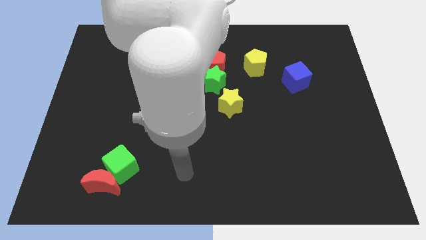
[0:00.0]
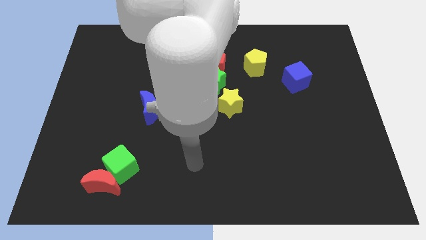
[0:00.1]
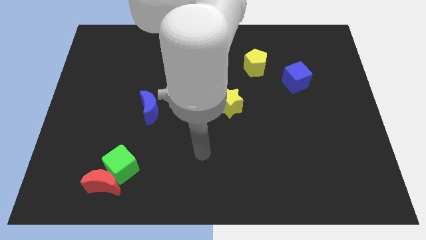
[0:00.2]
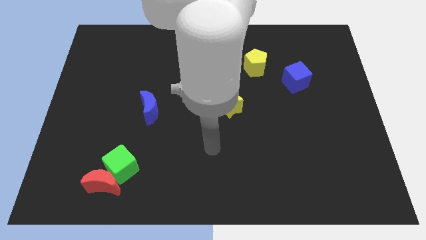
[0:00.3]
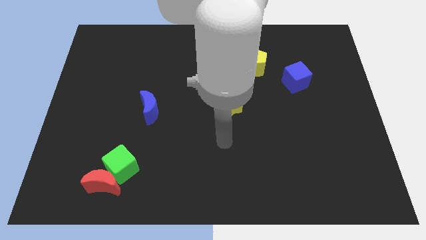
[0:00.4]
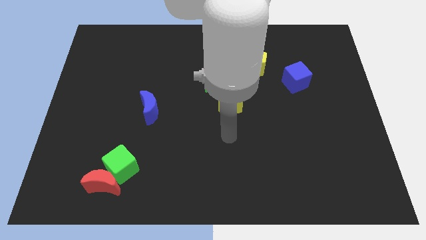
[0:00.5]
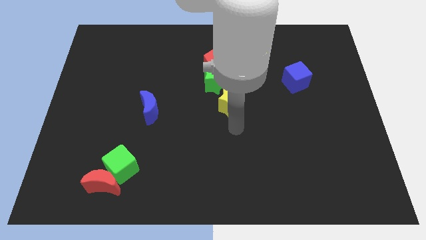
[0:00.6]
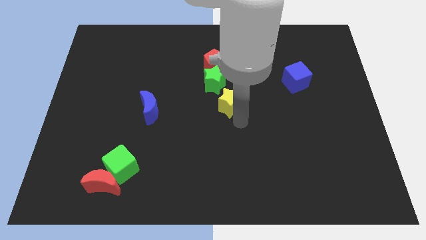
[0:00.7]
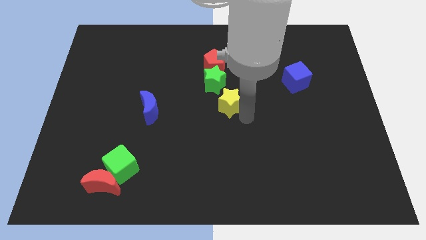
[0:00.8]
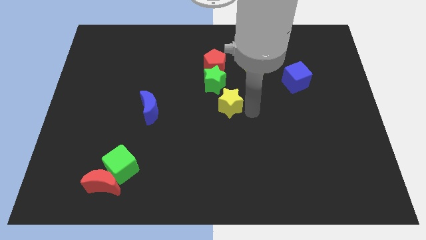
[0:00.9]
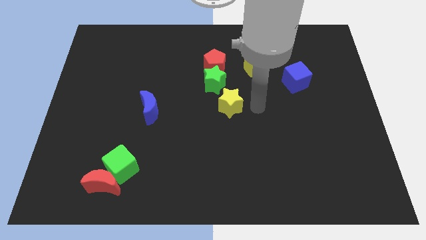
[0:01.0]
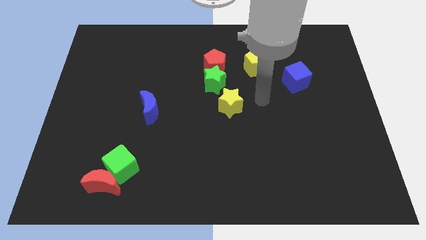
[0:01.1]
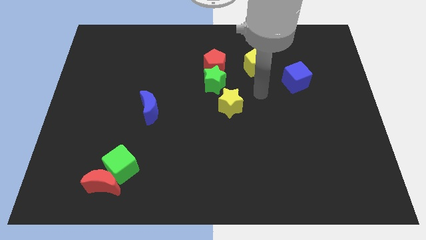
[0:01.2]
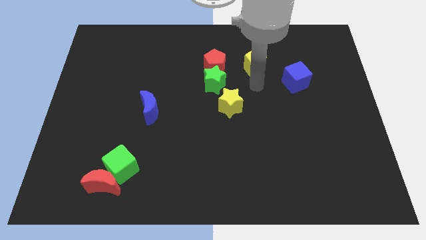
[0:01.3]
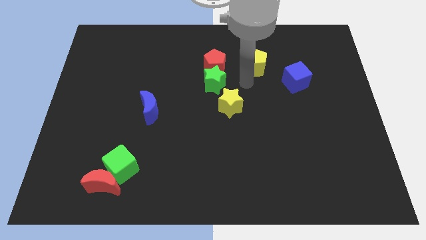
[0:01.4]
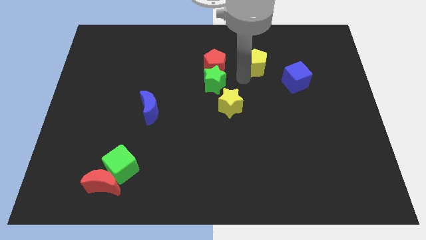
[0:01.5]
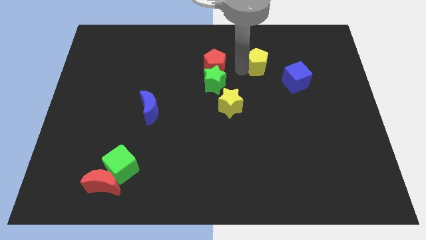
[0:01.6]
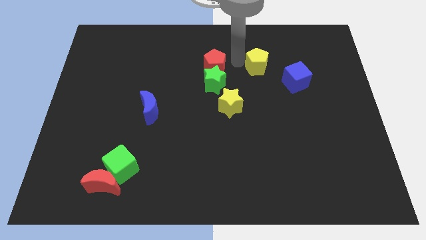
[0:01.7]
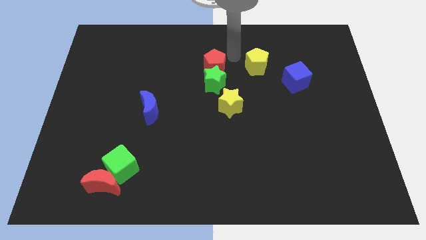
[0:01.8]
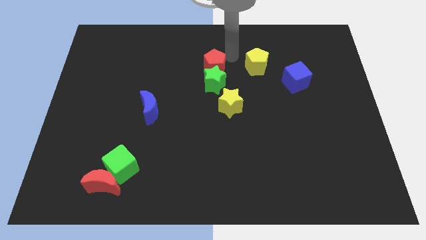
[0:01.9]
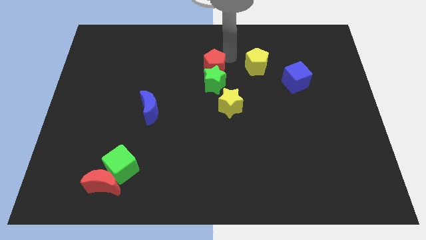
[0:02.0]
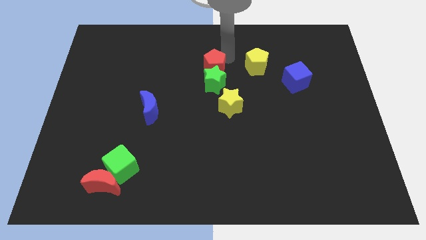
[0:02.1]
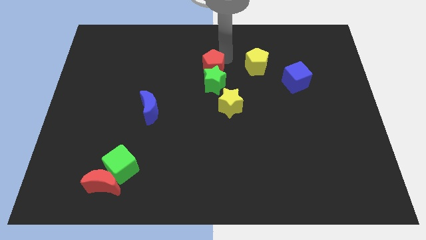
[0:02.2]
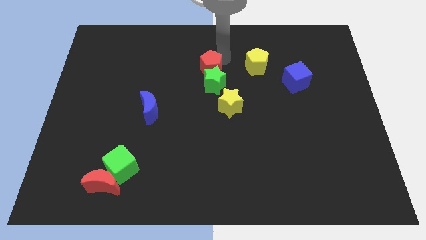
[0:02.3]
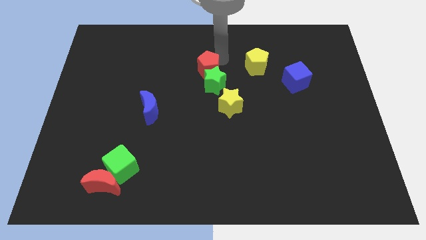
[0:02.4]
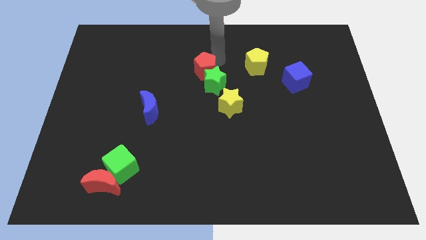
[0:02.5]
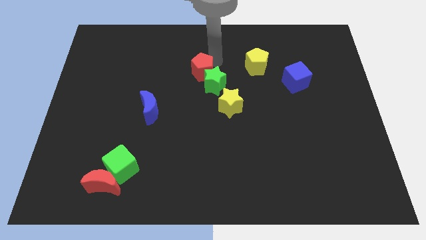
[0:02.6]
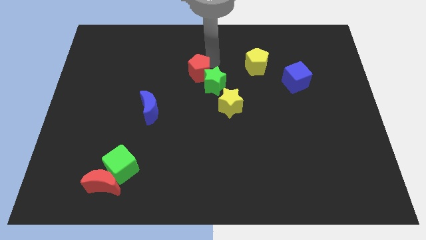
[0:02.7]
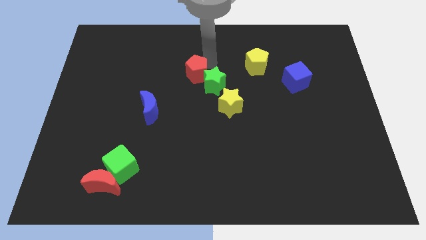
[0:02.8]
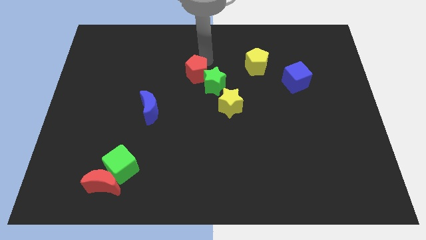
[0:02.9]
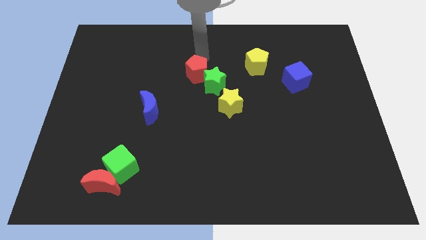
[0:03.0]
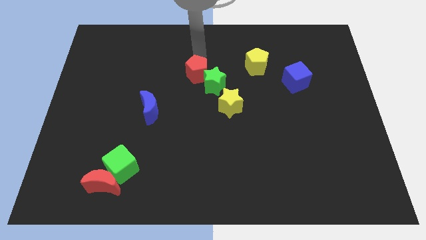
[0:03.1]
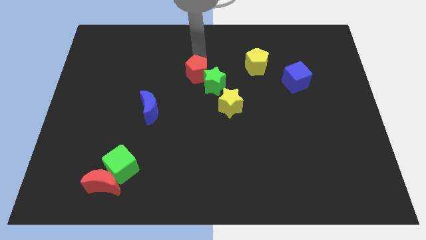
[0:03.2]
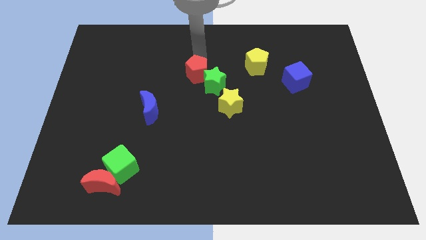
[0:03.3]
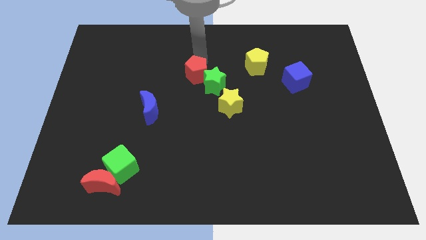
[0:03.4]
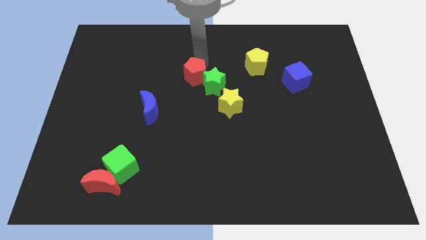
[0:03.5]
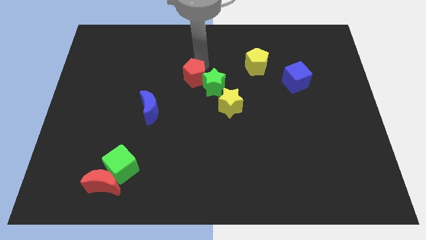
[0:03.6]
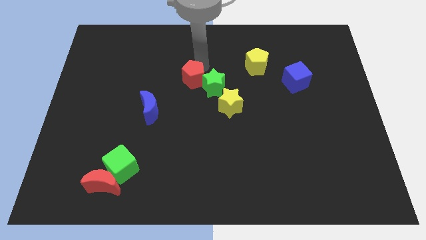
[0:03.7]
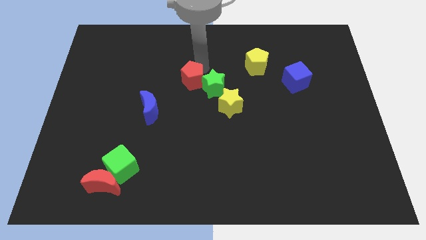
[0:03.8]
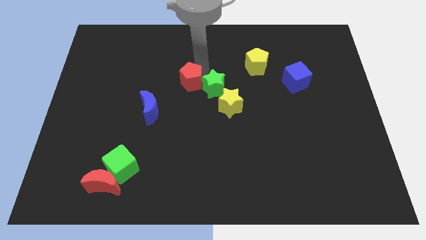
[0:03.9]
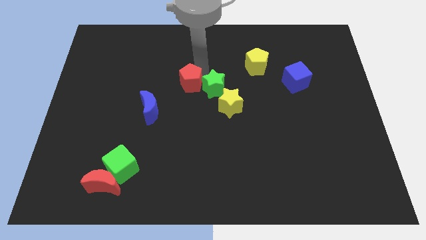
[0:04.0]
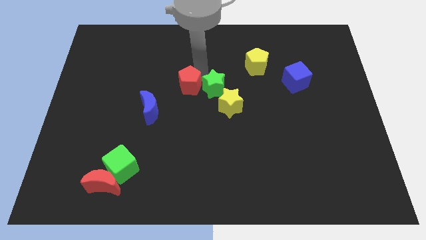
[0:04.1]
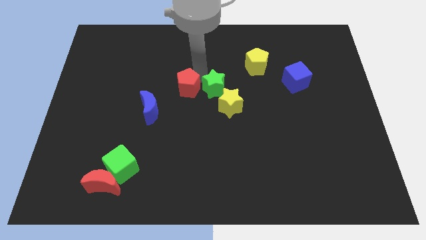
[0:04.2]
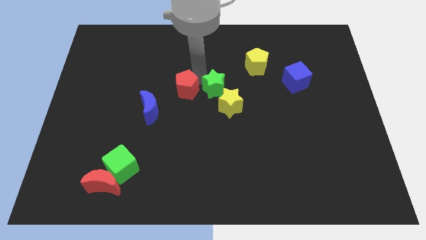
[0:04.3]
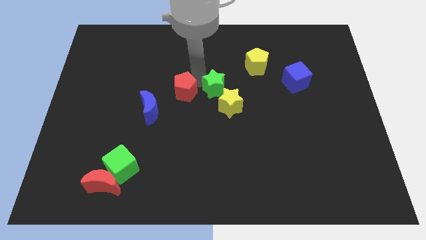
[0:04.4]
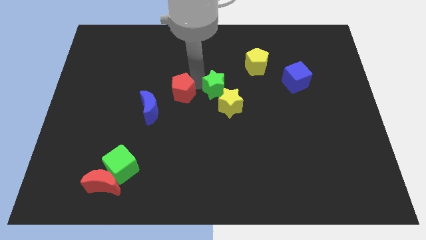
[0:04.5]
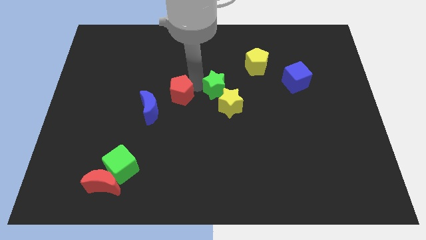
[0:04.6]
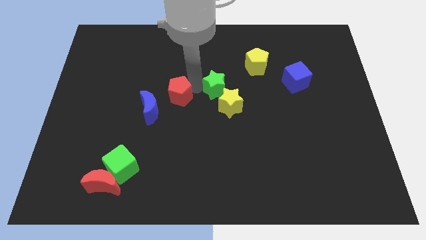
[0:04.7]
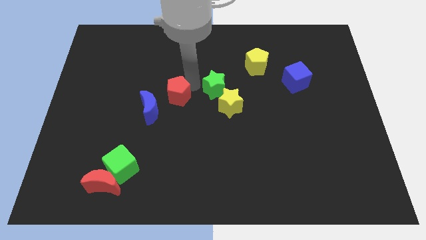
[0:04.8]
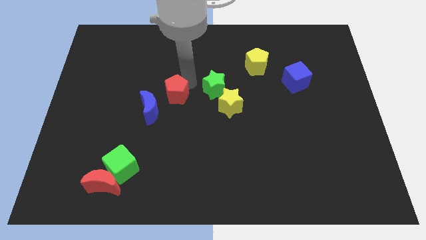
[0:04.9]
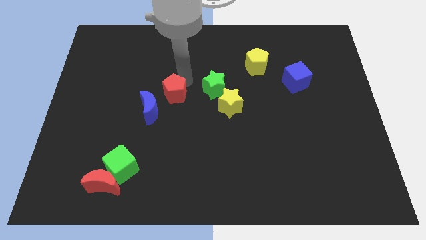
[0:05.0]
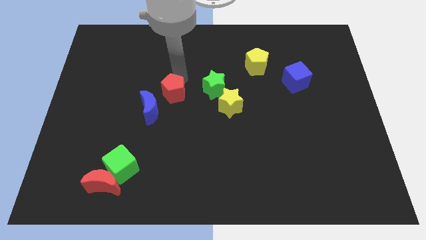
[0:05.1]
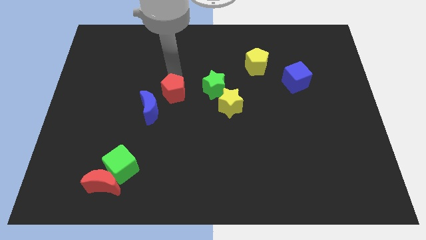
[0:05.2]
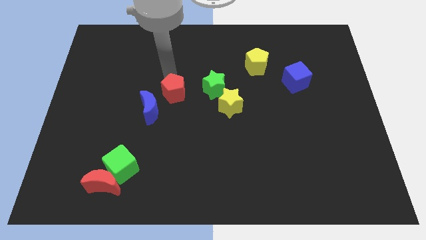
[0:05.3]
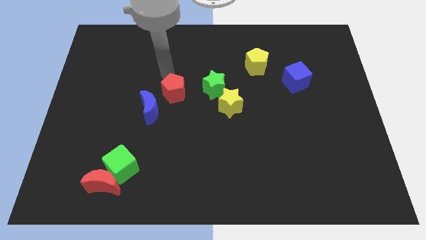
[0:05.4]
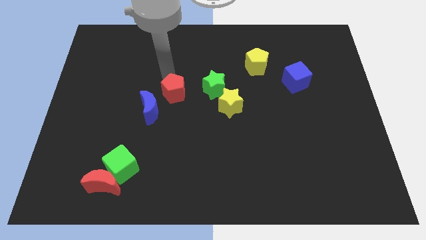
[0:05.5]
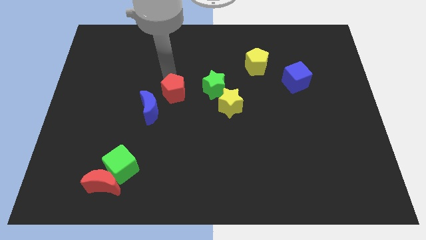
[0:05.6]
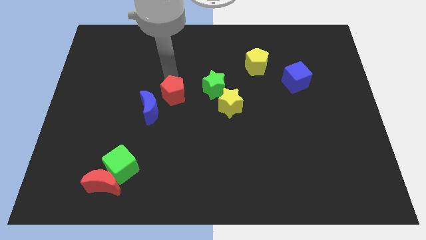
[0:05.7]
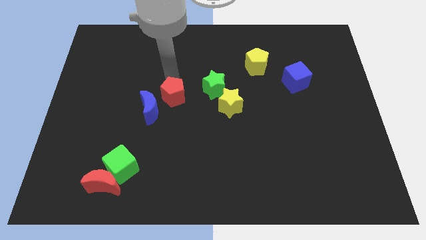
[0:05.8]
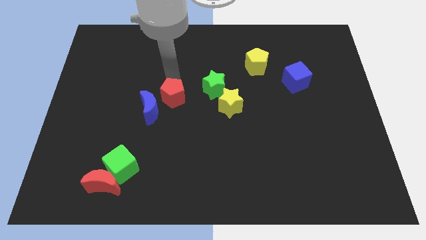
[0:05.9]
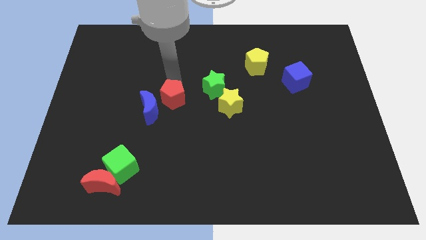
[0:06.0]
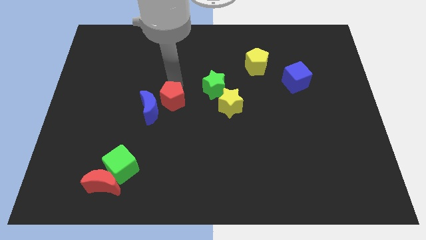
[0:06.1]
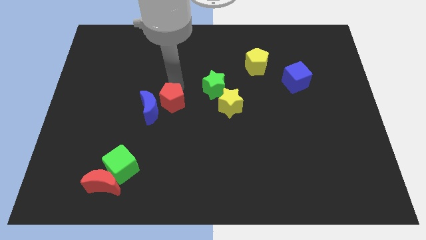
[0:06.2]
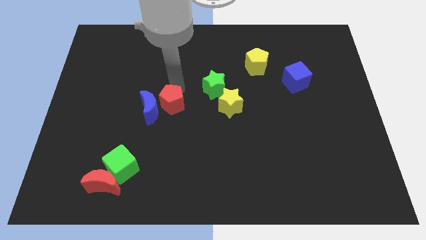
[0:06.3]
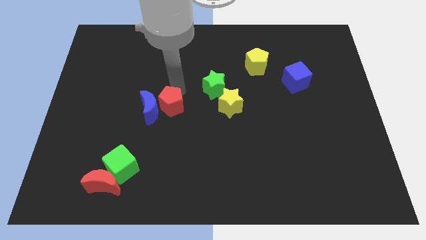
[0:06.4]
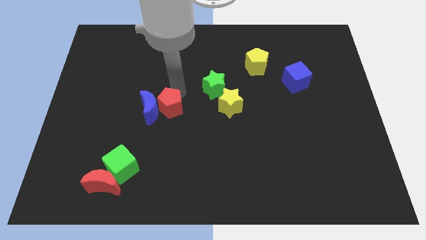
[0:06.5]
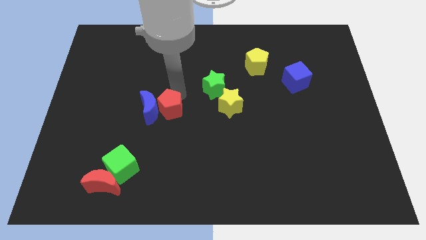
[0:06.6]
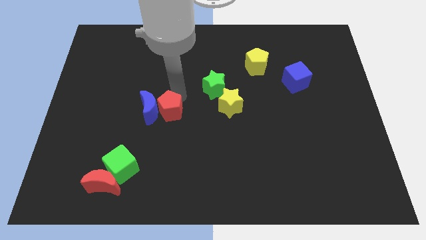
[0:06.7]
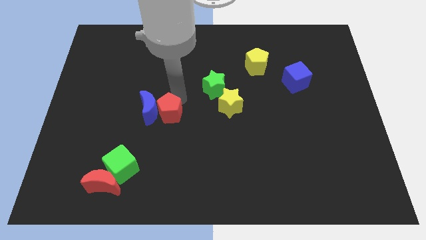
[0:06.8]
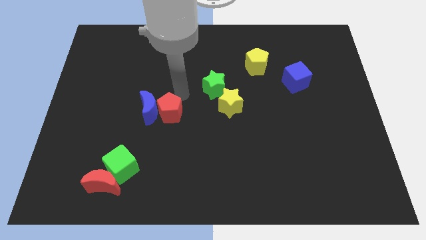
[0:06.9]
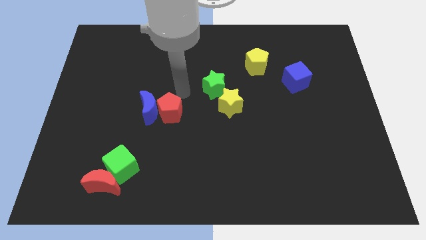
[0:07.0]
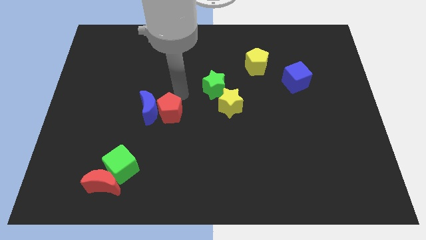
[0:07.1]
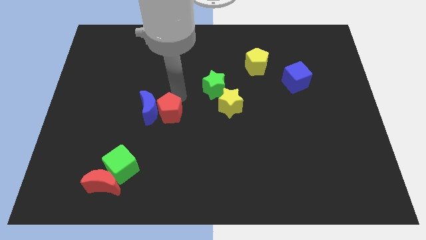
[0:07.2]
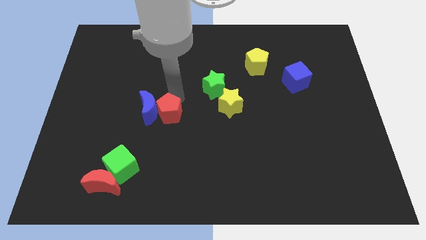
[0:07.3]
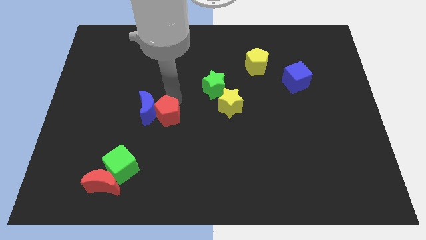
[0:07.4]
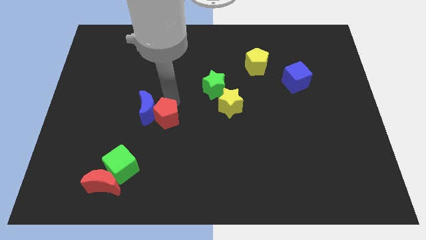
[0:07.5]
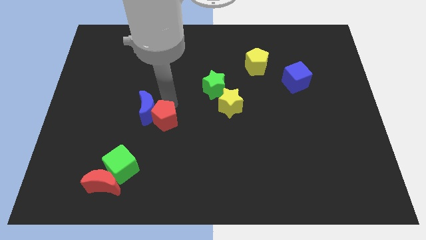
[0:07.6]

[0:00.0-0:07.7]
move the red pentagon below the blue moon
